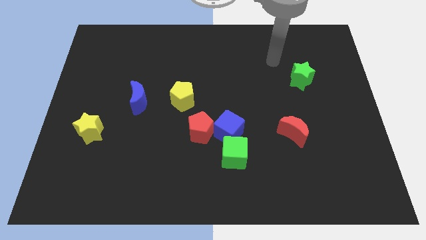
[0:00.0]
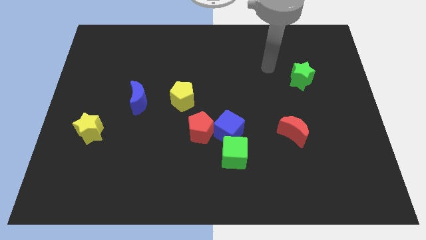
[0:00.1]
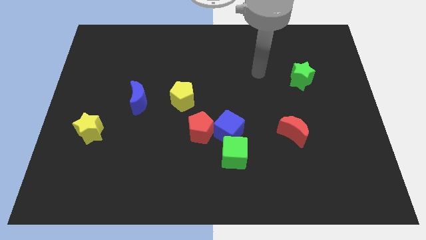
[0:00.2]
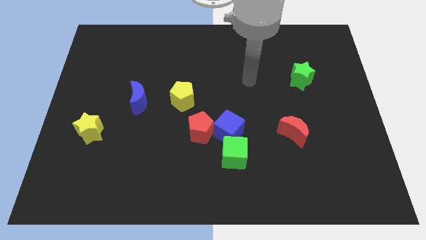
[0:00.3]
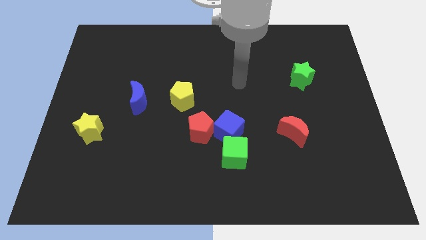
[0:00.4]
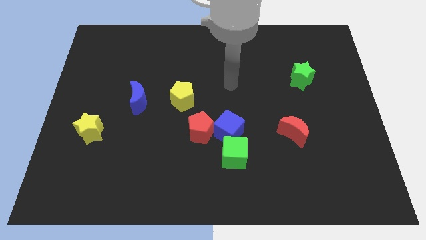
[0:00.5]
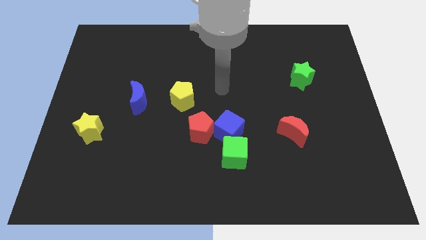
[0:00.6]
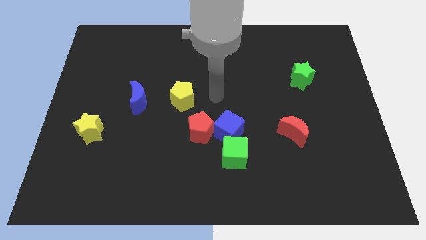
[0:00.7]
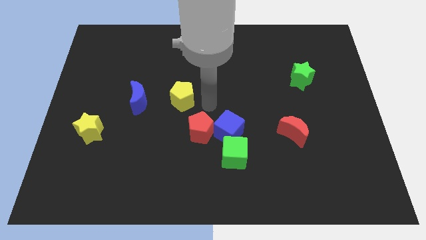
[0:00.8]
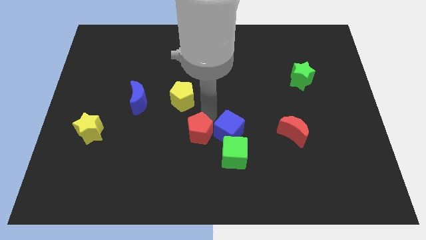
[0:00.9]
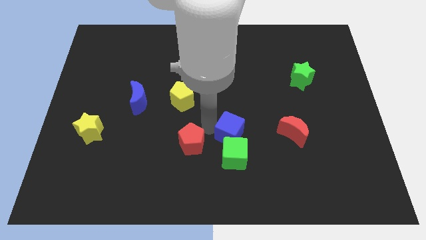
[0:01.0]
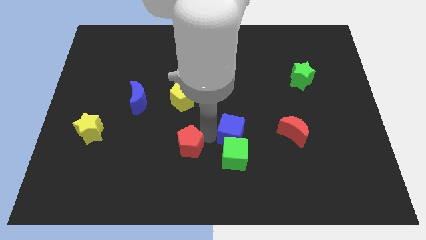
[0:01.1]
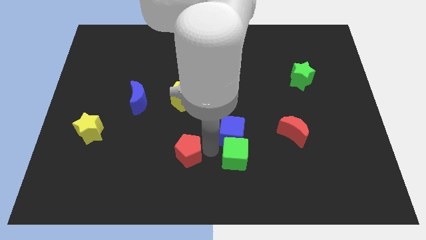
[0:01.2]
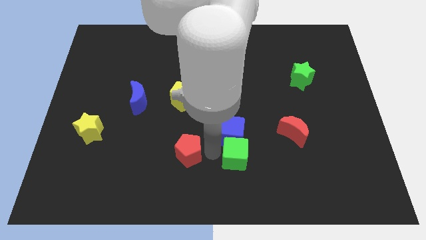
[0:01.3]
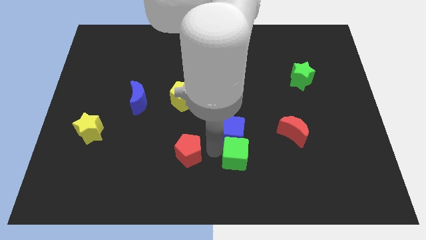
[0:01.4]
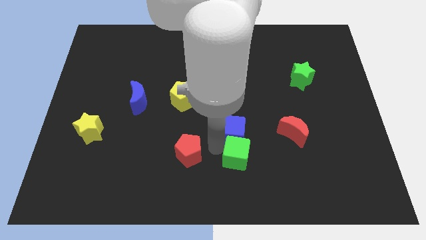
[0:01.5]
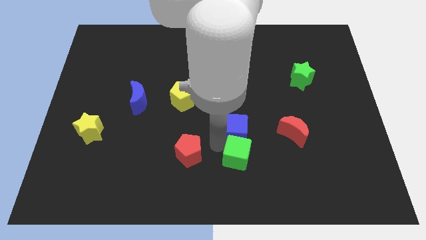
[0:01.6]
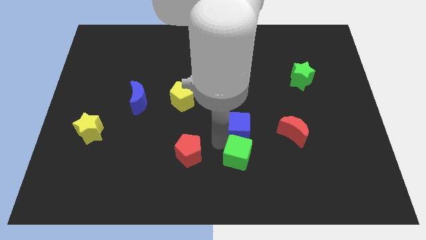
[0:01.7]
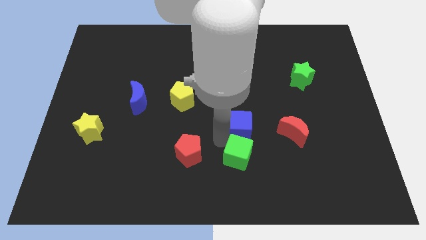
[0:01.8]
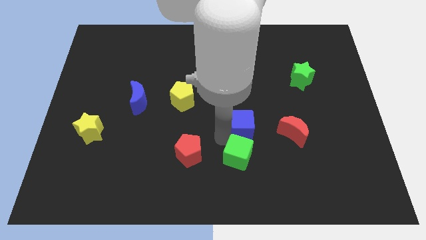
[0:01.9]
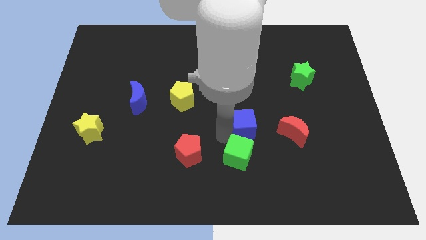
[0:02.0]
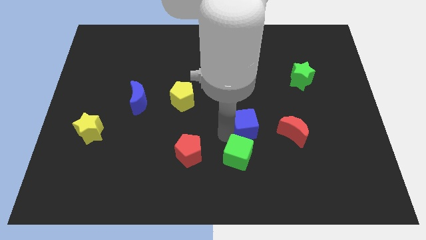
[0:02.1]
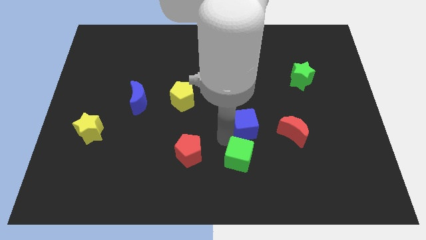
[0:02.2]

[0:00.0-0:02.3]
move the blue cube away from the green cube and red pentagon

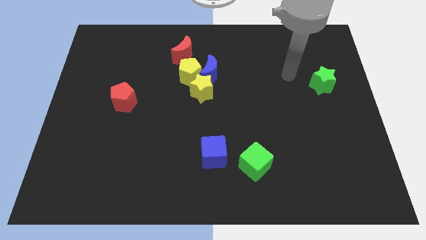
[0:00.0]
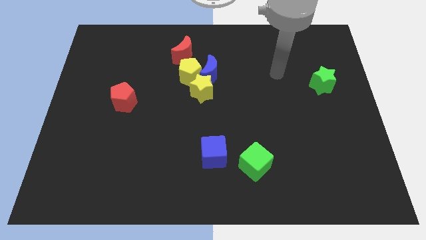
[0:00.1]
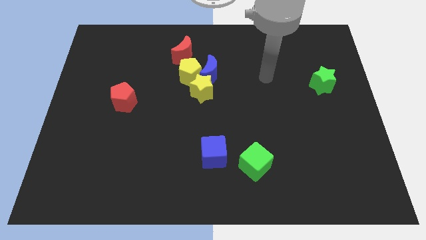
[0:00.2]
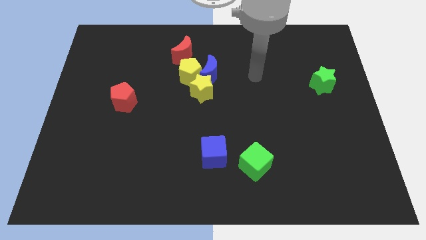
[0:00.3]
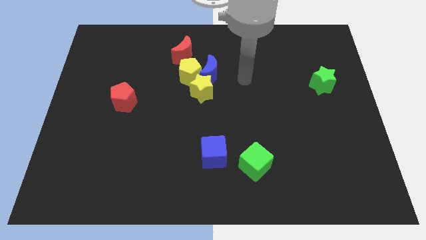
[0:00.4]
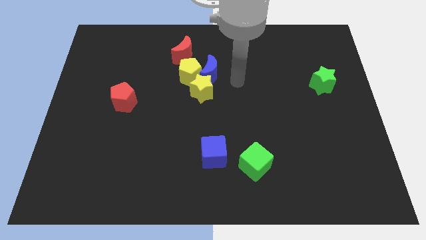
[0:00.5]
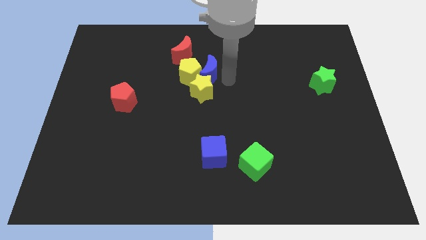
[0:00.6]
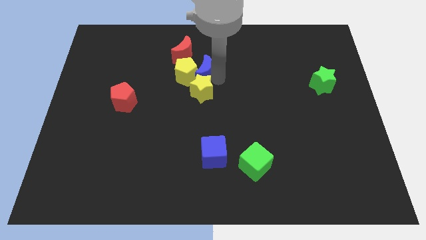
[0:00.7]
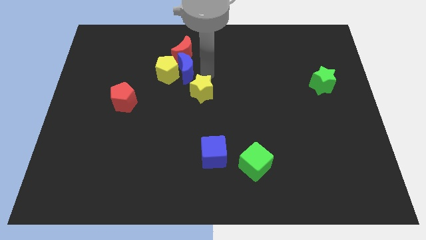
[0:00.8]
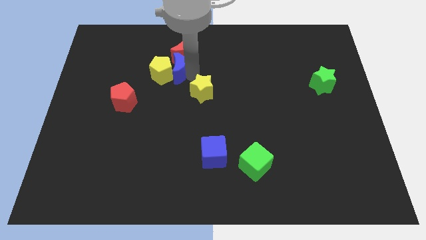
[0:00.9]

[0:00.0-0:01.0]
pull the yellow star apart from the blue moon and yellow pentagon

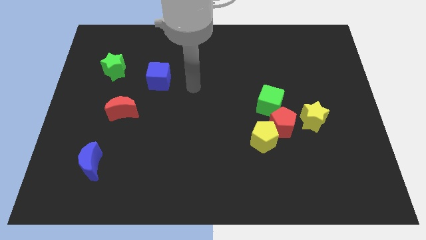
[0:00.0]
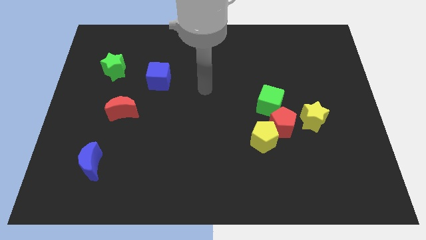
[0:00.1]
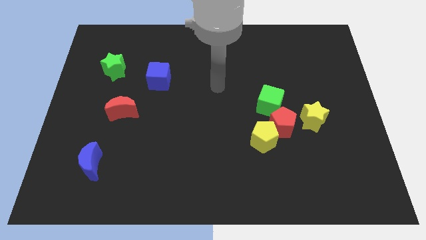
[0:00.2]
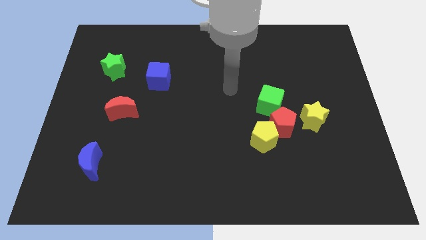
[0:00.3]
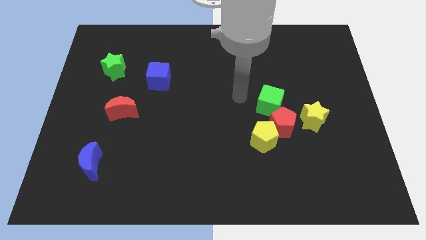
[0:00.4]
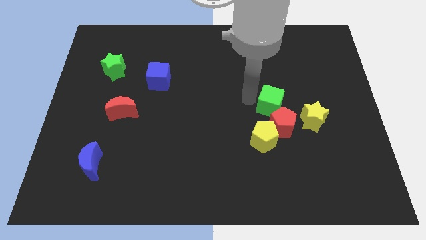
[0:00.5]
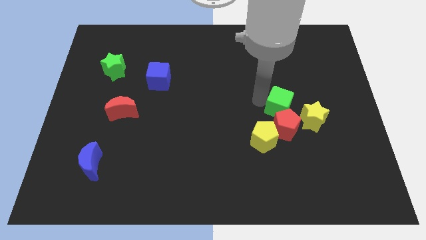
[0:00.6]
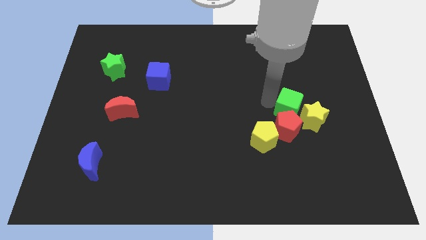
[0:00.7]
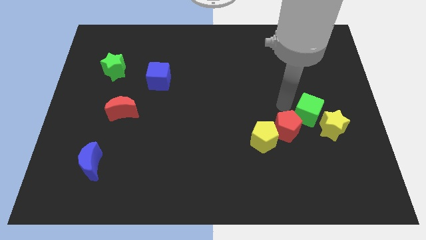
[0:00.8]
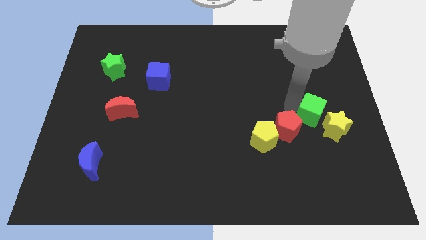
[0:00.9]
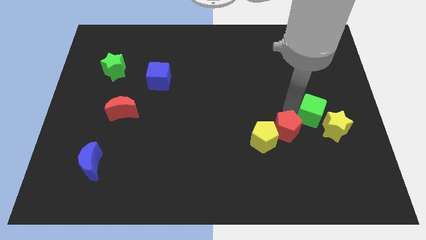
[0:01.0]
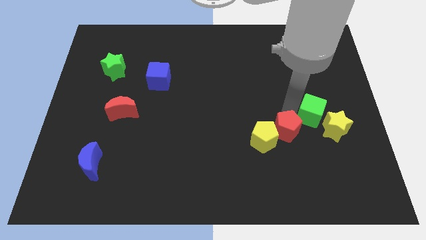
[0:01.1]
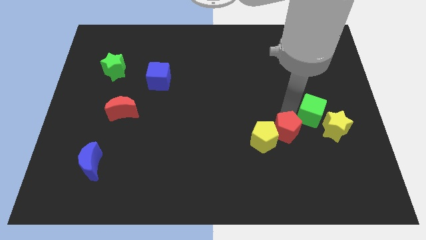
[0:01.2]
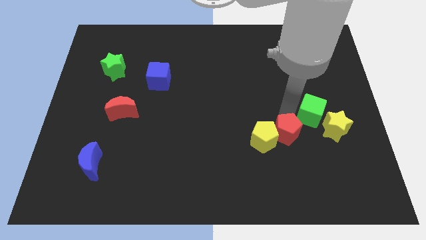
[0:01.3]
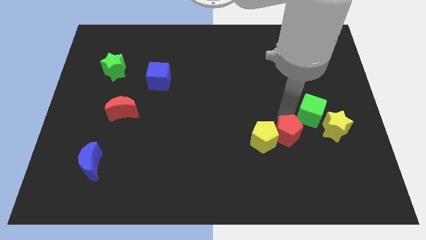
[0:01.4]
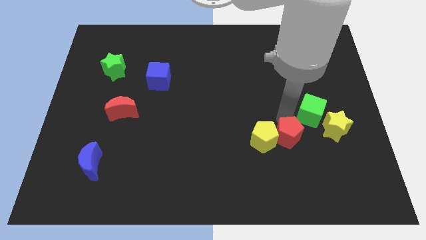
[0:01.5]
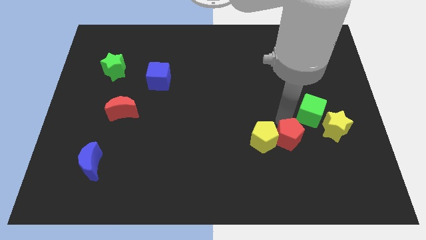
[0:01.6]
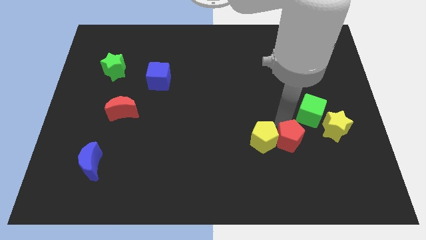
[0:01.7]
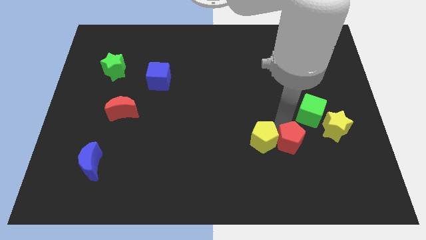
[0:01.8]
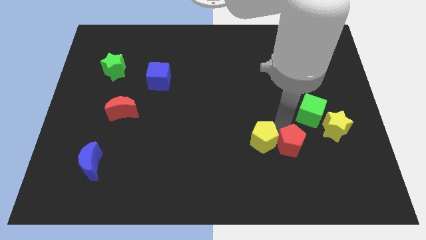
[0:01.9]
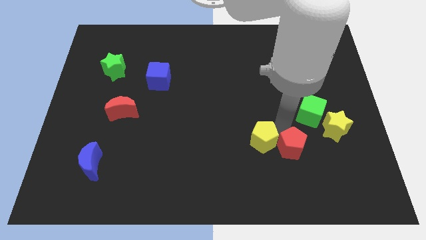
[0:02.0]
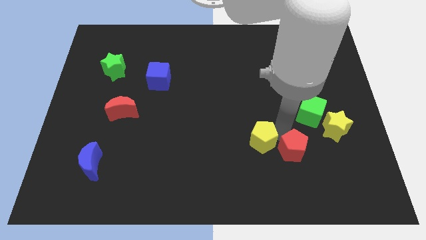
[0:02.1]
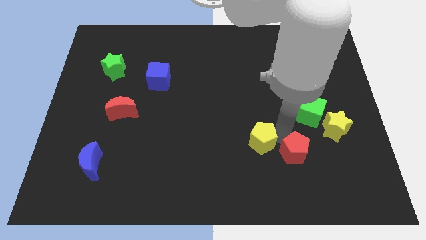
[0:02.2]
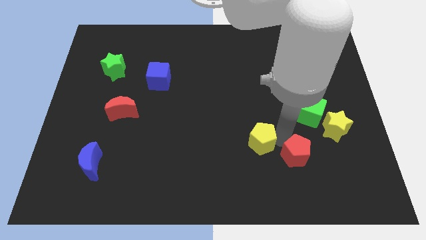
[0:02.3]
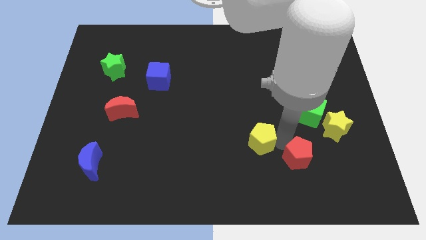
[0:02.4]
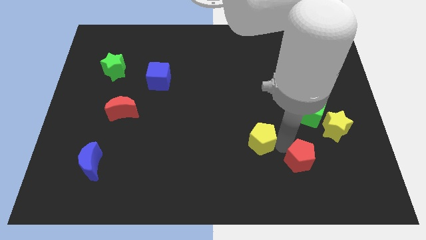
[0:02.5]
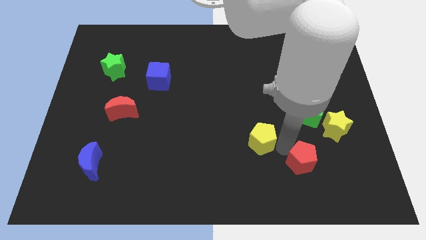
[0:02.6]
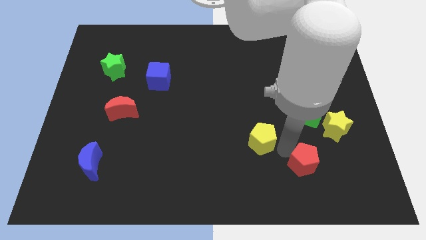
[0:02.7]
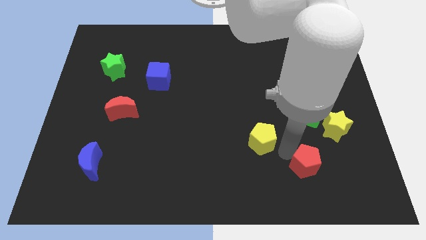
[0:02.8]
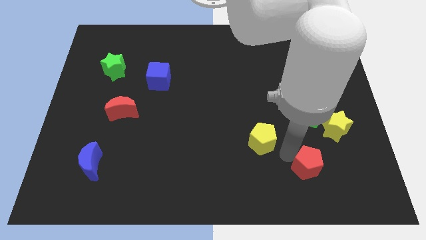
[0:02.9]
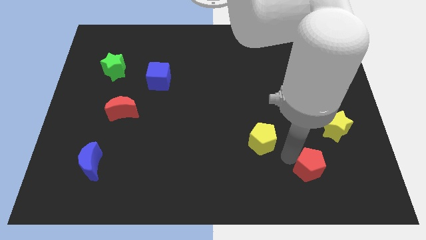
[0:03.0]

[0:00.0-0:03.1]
separate the red pentagon from the group of blocks

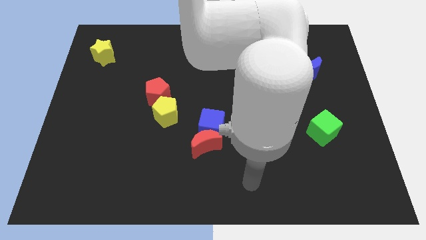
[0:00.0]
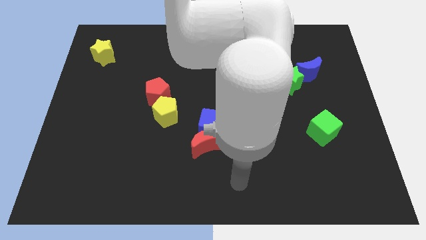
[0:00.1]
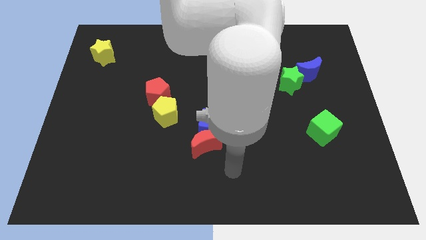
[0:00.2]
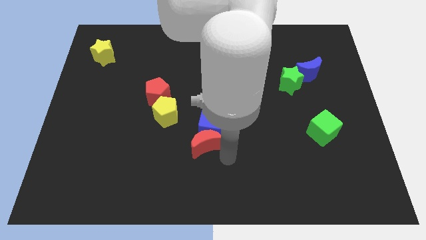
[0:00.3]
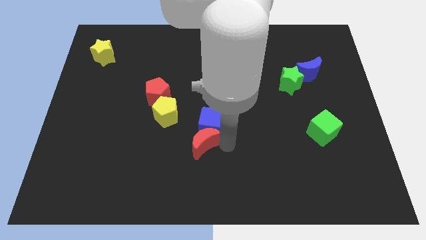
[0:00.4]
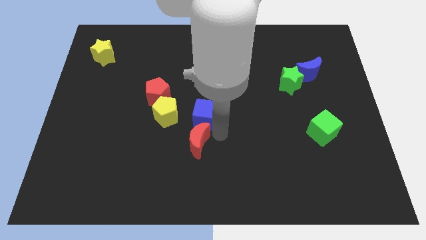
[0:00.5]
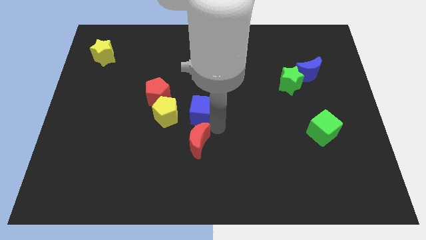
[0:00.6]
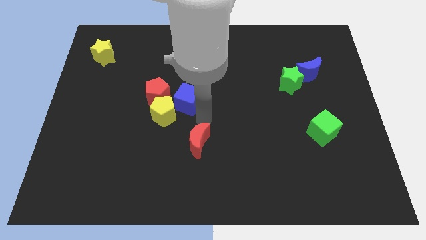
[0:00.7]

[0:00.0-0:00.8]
separate the red moon from the blue cube

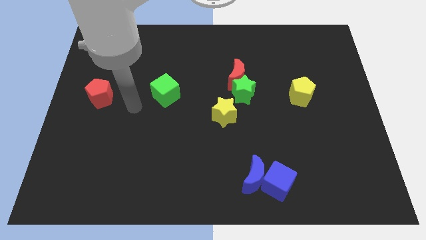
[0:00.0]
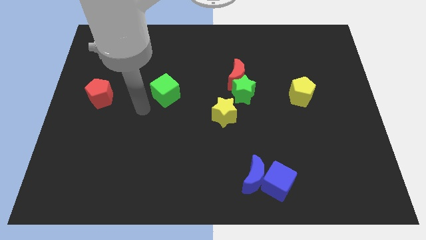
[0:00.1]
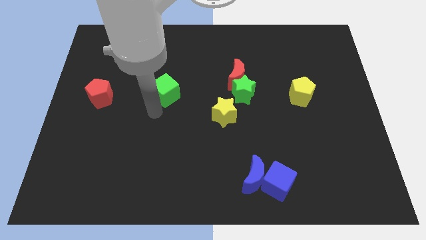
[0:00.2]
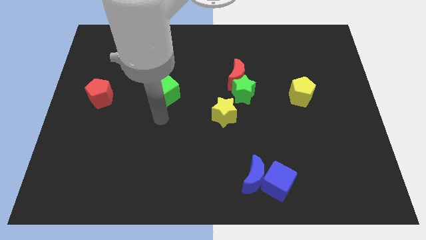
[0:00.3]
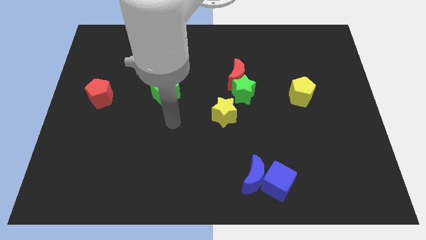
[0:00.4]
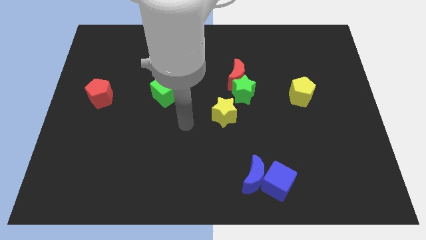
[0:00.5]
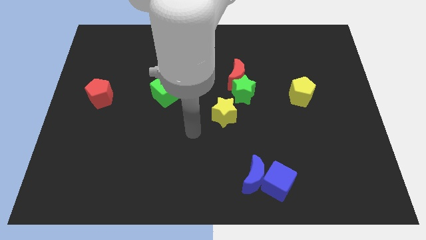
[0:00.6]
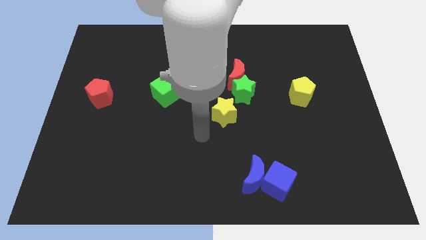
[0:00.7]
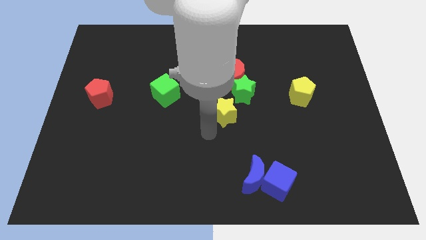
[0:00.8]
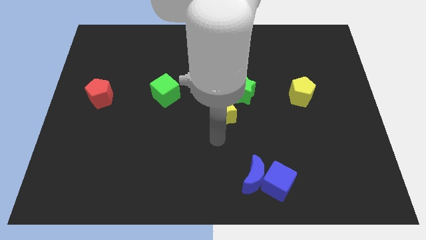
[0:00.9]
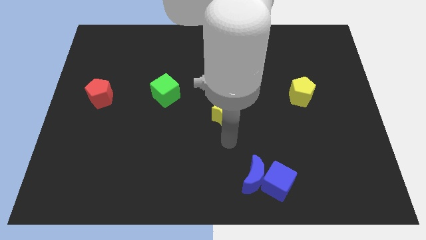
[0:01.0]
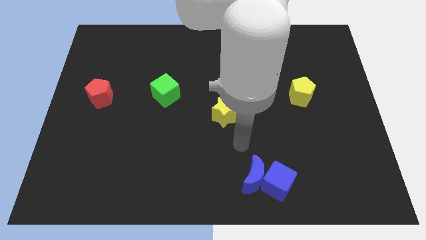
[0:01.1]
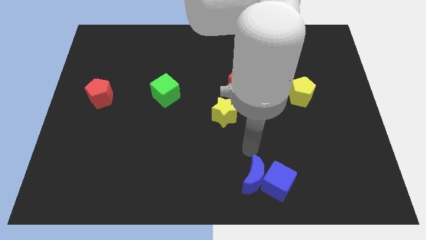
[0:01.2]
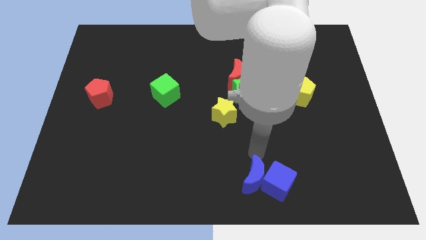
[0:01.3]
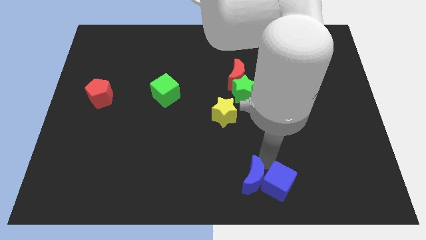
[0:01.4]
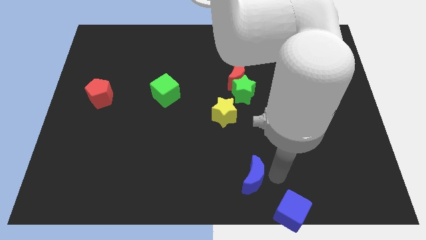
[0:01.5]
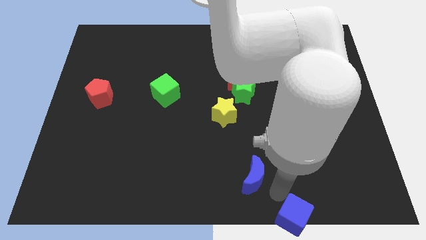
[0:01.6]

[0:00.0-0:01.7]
separate the blue moon from the blue cube

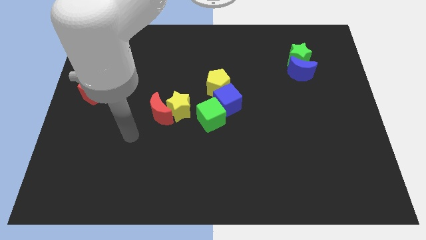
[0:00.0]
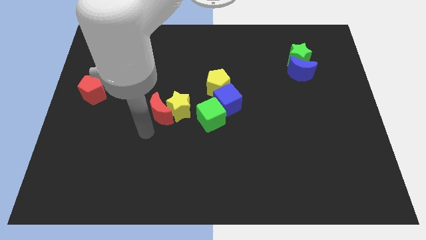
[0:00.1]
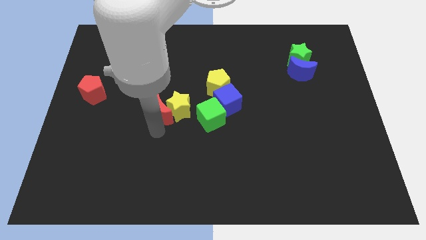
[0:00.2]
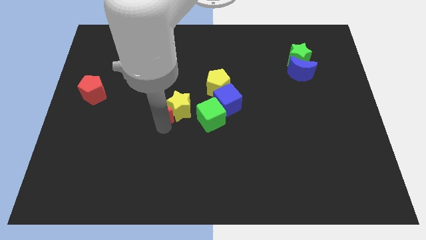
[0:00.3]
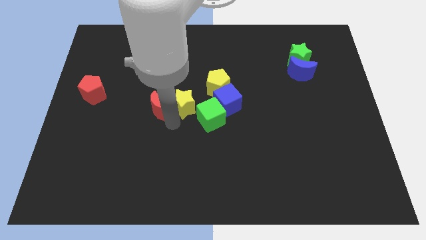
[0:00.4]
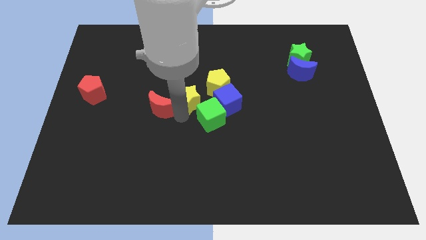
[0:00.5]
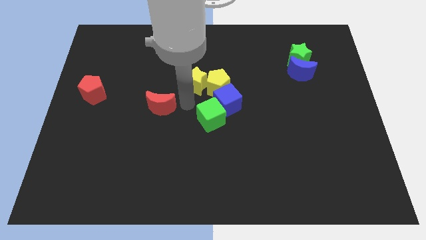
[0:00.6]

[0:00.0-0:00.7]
move the red moon away from the yellow star
